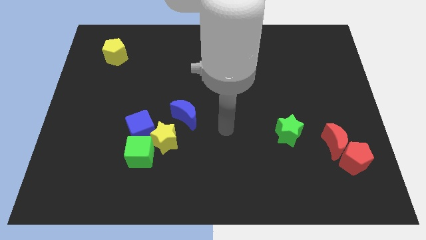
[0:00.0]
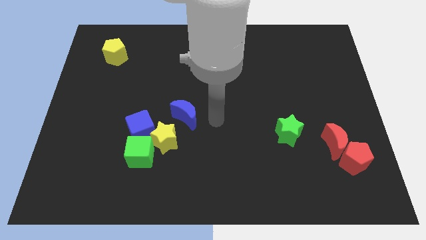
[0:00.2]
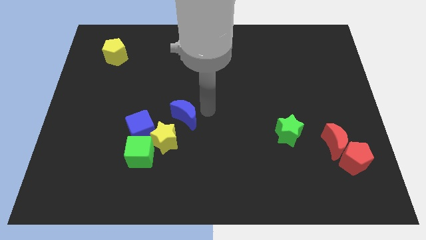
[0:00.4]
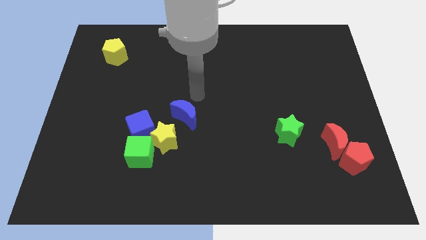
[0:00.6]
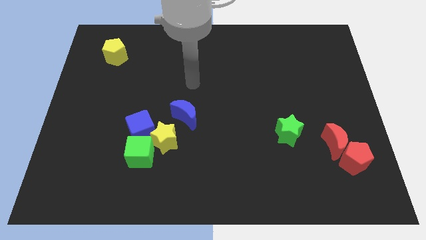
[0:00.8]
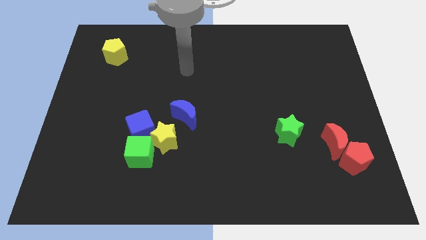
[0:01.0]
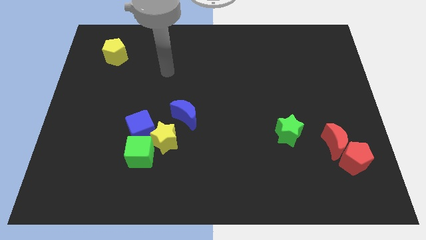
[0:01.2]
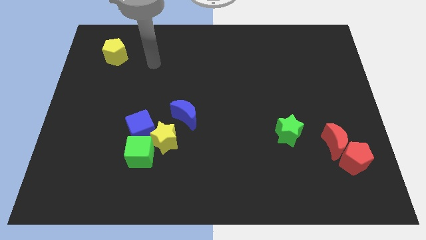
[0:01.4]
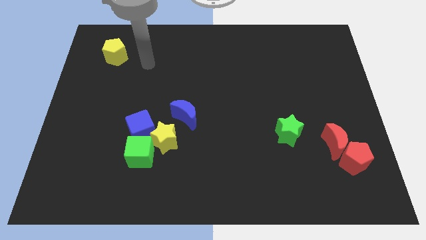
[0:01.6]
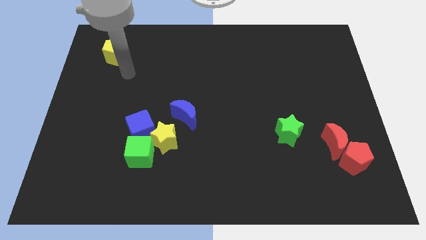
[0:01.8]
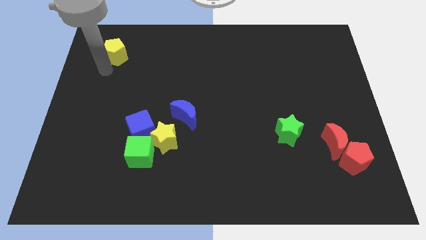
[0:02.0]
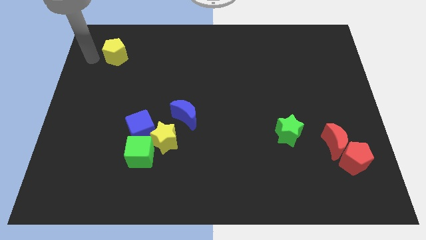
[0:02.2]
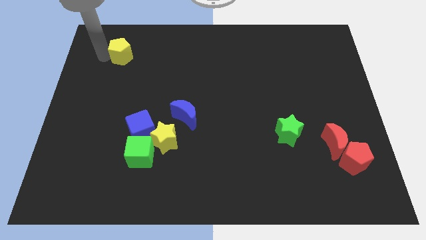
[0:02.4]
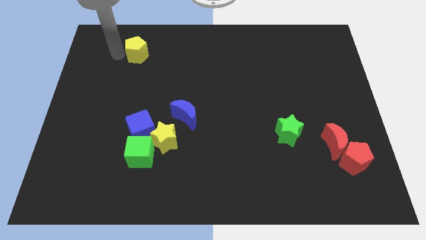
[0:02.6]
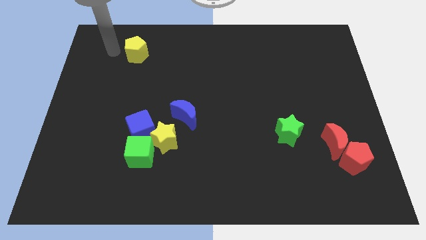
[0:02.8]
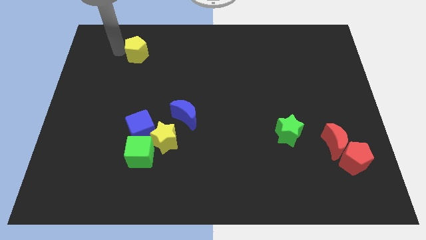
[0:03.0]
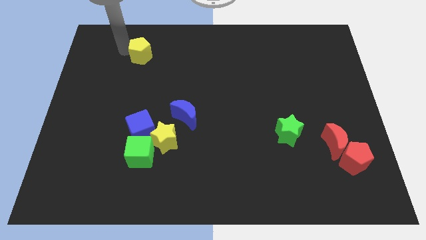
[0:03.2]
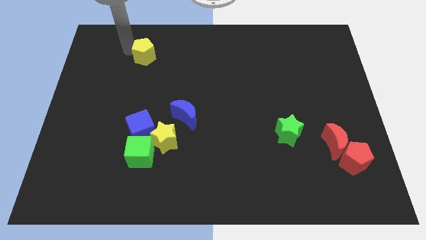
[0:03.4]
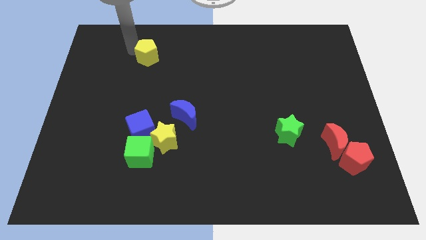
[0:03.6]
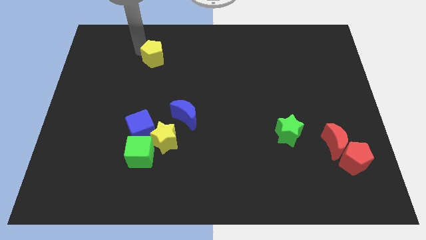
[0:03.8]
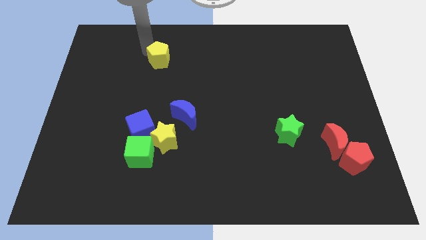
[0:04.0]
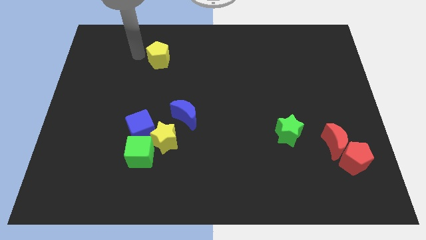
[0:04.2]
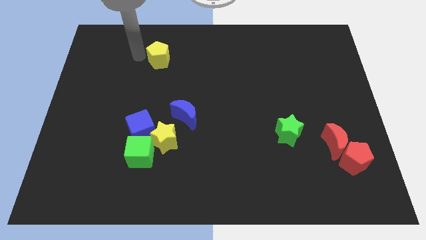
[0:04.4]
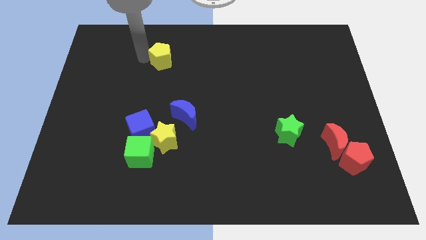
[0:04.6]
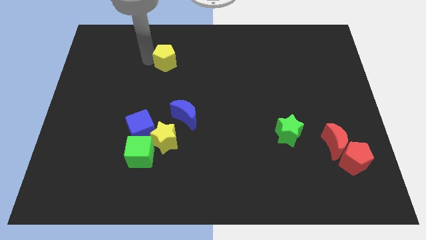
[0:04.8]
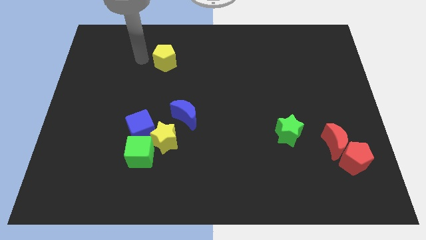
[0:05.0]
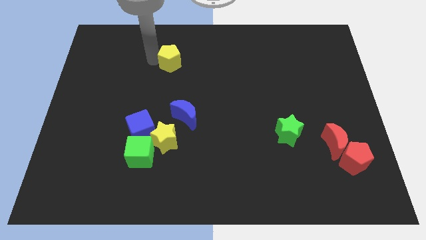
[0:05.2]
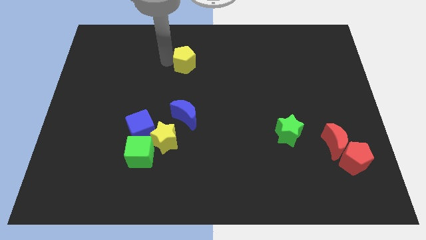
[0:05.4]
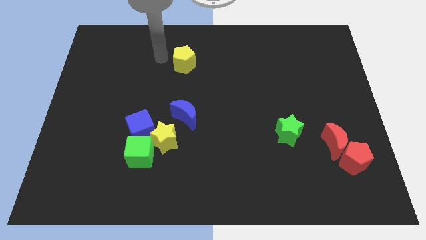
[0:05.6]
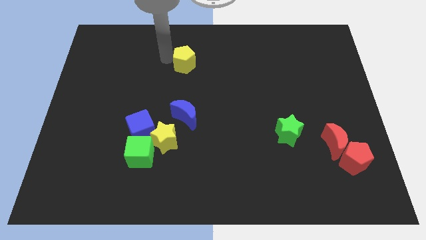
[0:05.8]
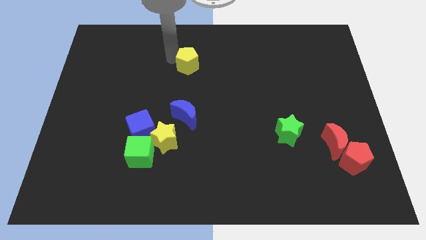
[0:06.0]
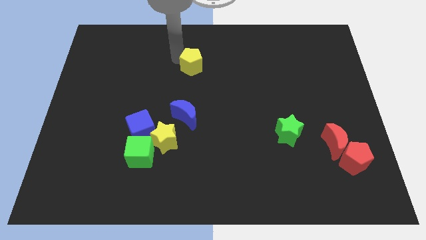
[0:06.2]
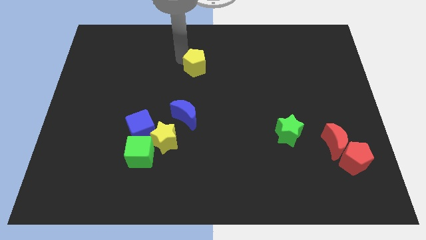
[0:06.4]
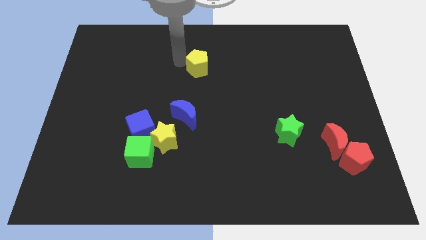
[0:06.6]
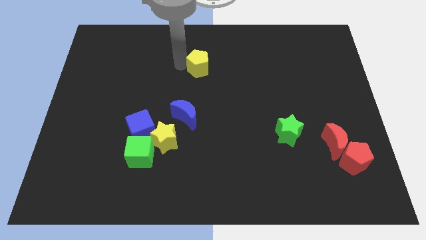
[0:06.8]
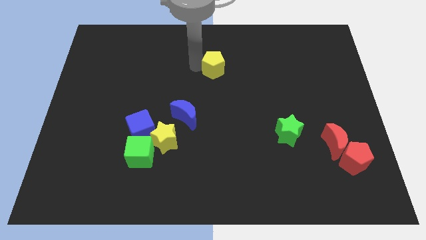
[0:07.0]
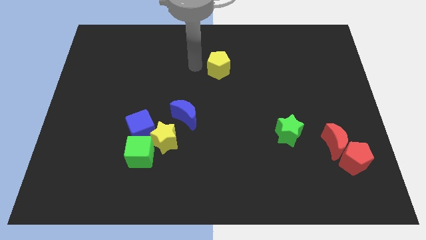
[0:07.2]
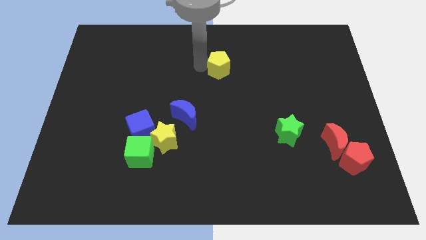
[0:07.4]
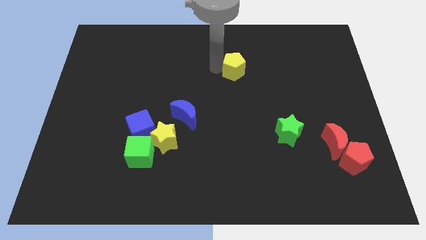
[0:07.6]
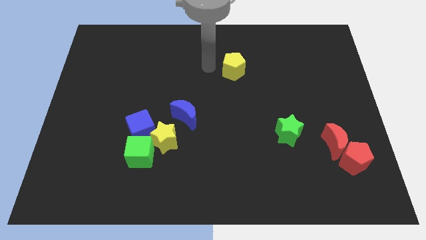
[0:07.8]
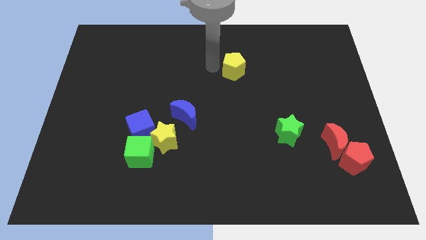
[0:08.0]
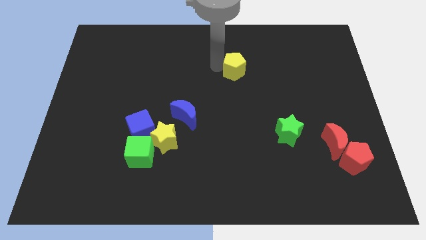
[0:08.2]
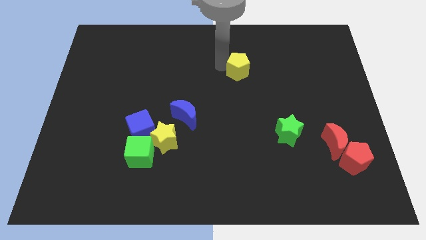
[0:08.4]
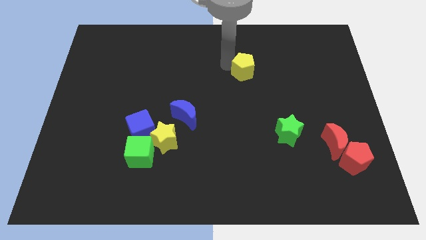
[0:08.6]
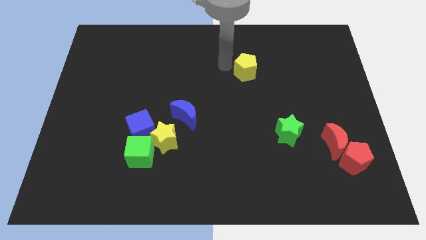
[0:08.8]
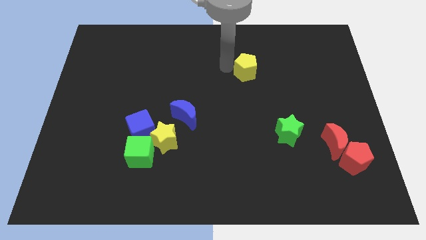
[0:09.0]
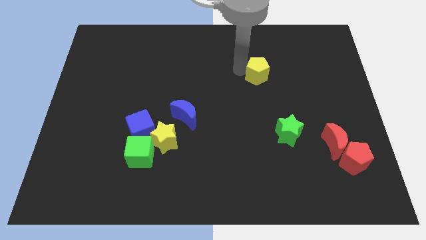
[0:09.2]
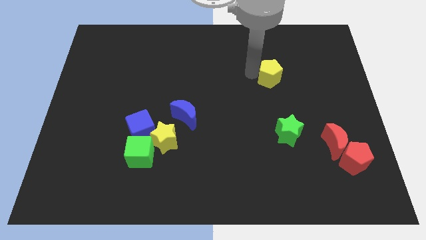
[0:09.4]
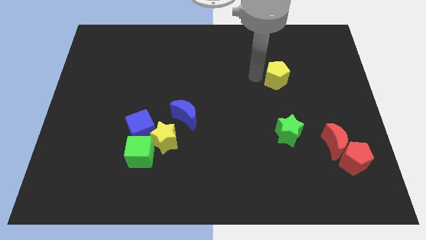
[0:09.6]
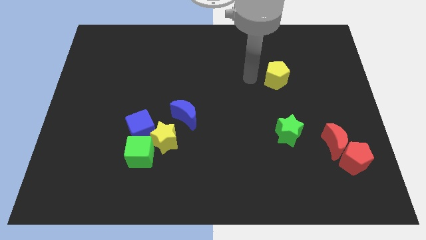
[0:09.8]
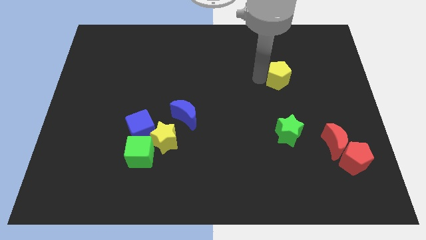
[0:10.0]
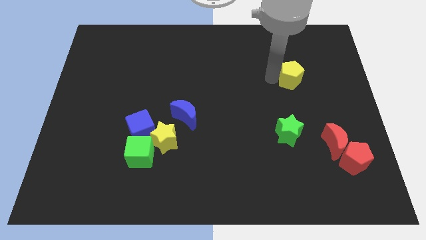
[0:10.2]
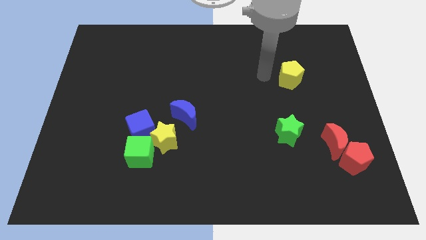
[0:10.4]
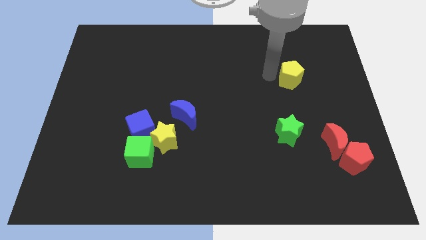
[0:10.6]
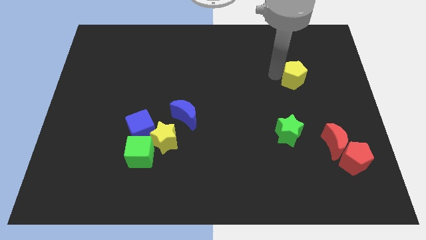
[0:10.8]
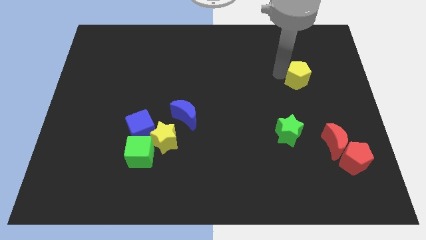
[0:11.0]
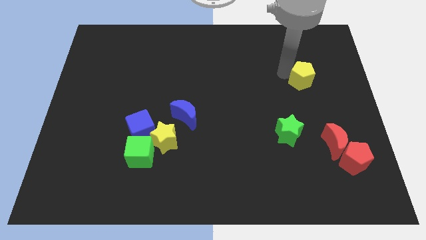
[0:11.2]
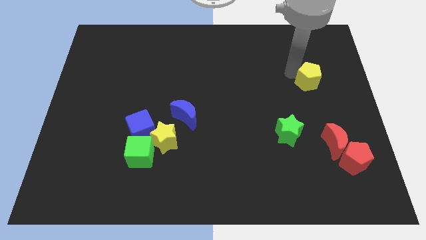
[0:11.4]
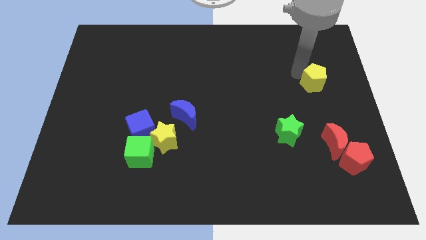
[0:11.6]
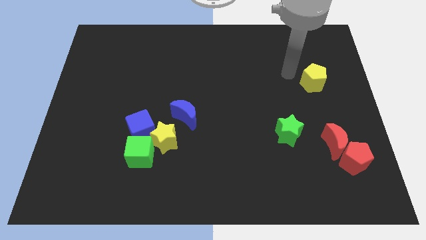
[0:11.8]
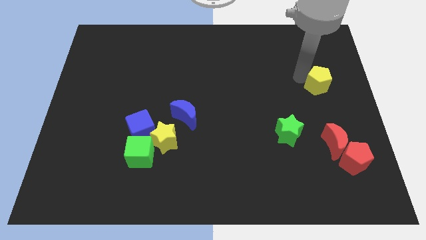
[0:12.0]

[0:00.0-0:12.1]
slide the yellow pentagon to the center right
